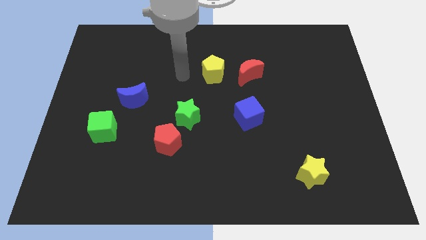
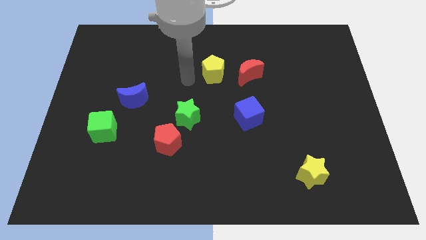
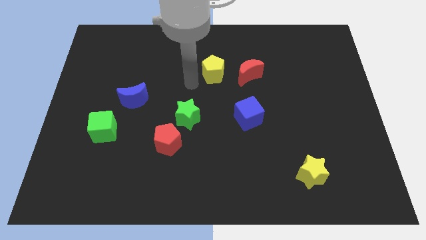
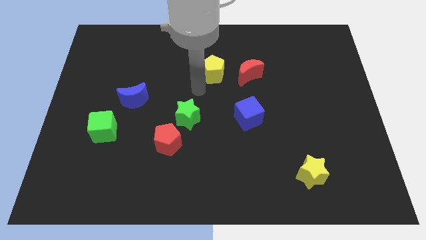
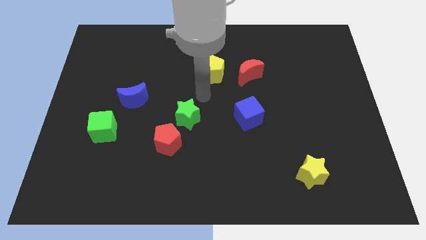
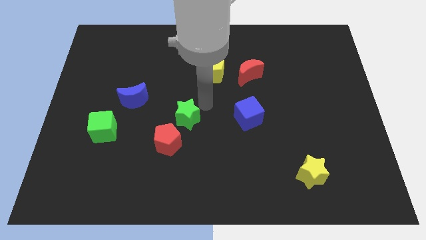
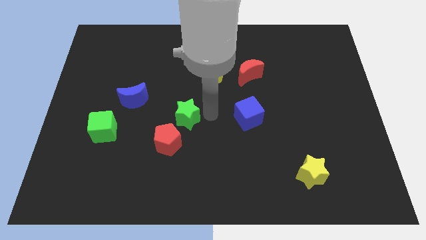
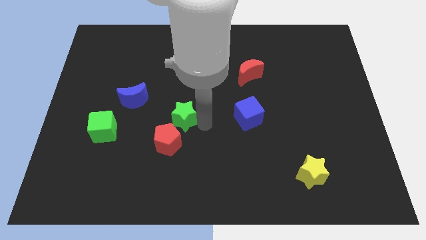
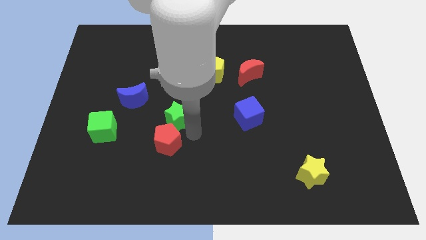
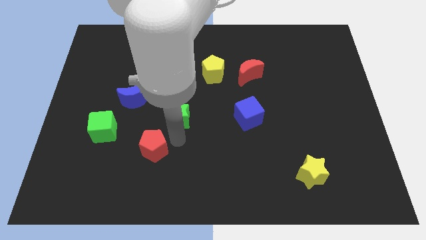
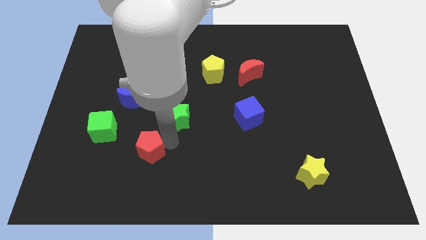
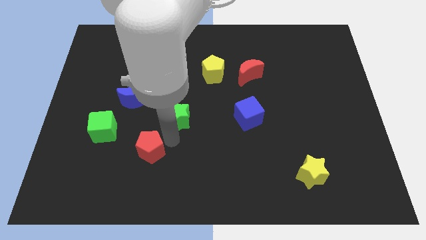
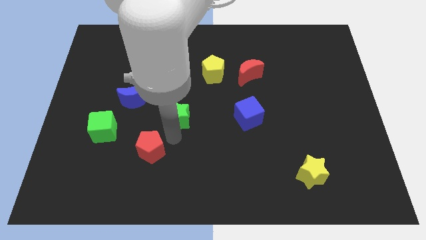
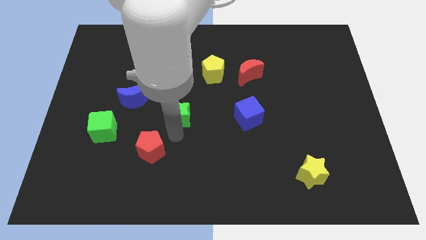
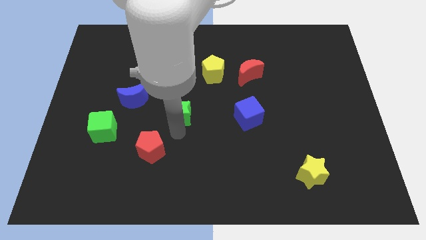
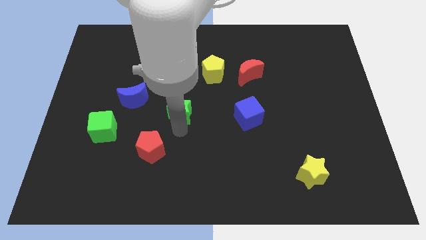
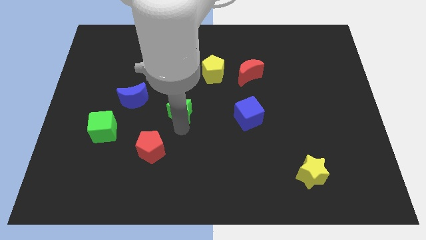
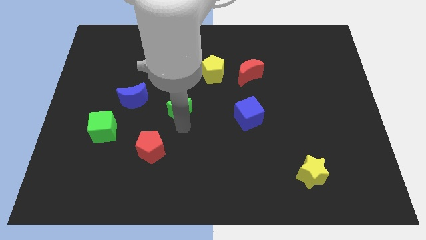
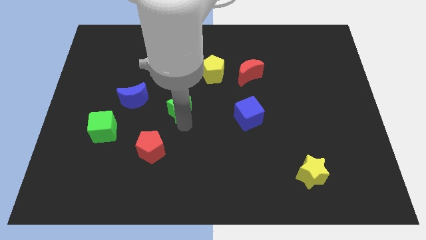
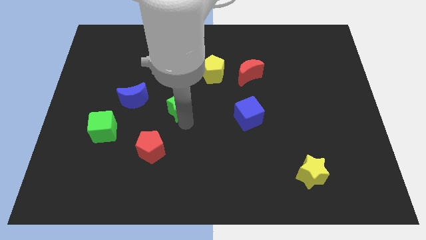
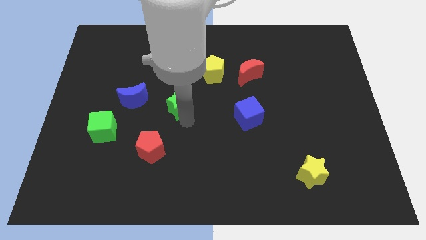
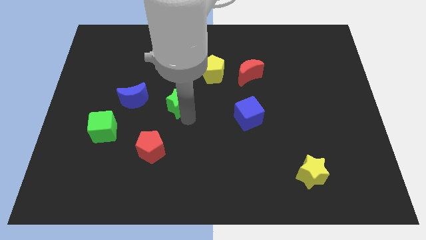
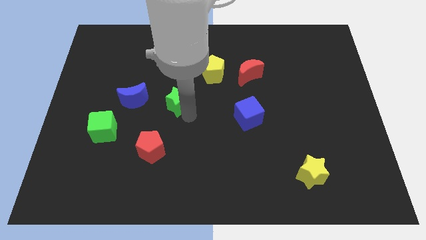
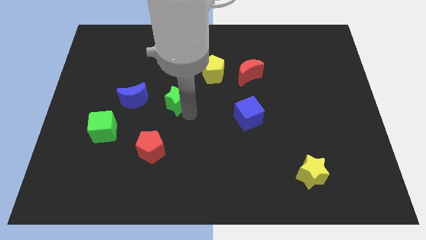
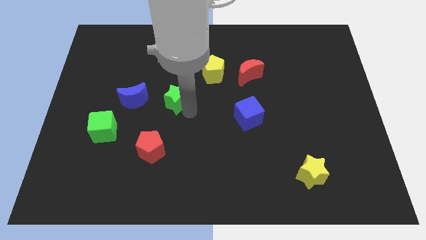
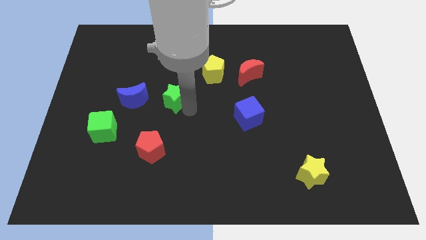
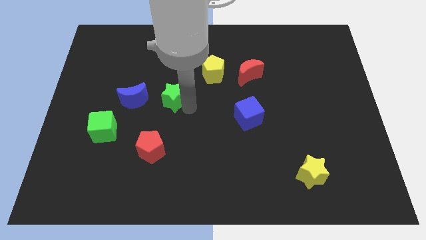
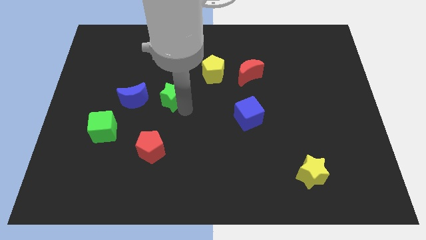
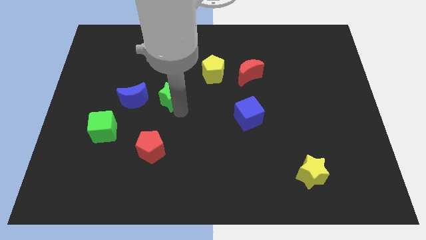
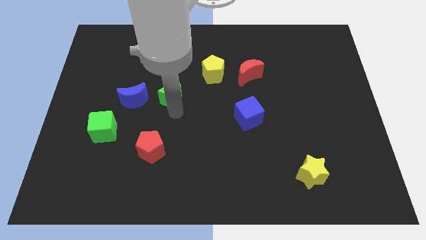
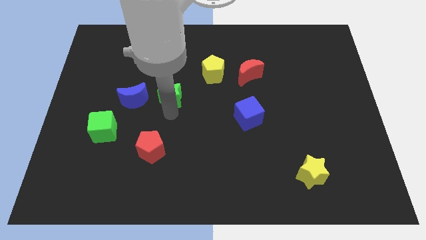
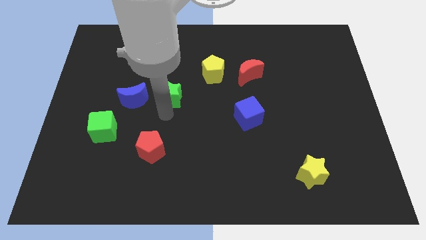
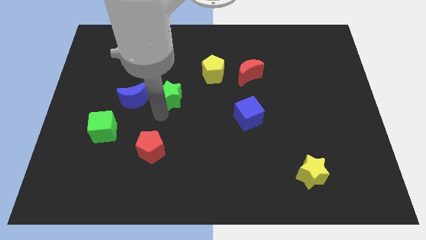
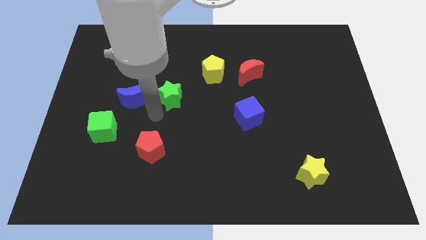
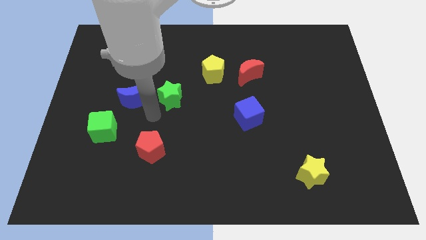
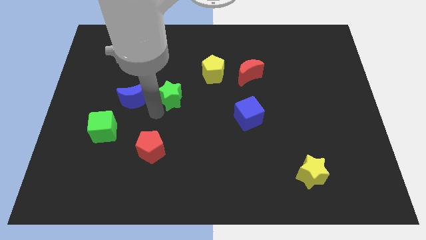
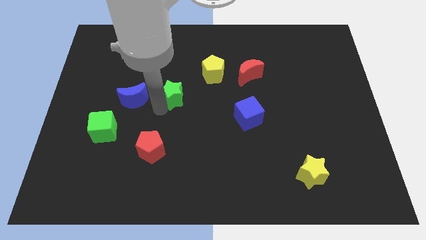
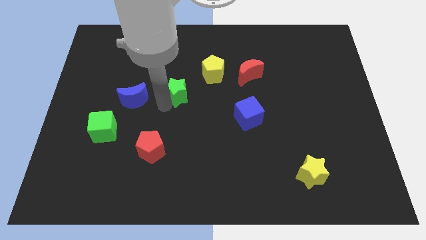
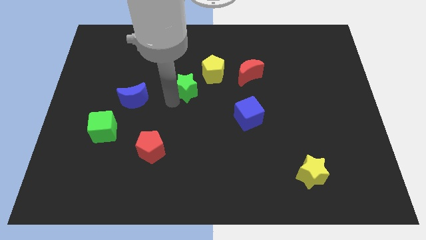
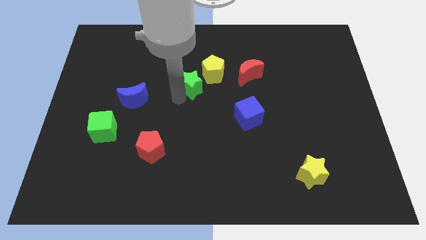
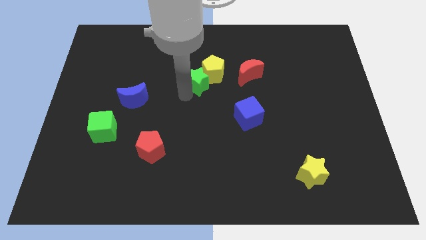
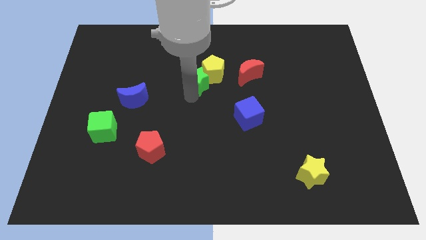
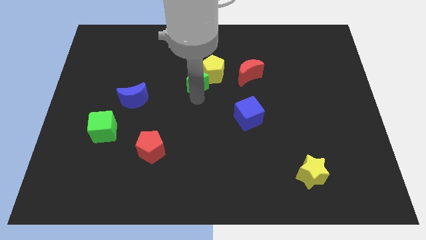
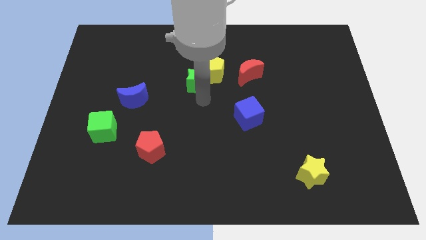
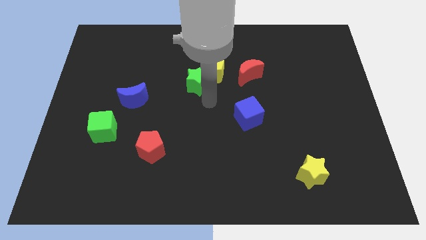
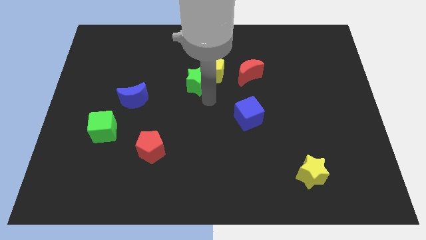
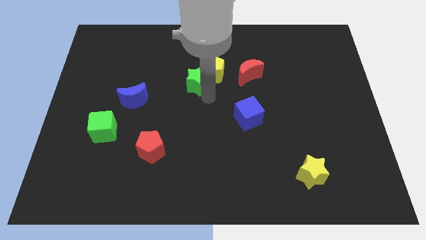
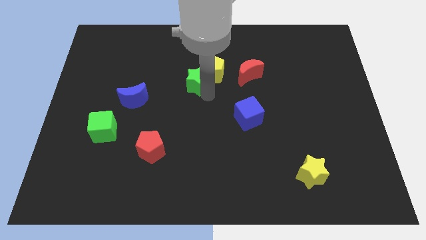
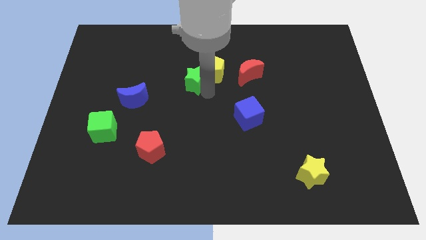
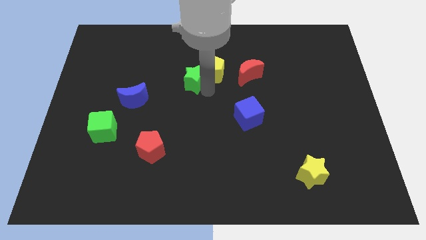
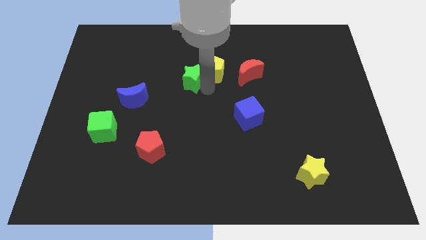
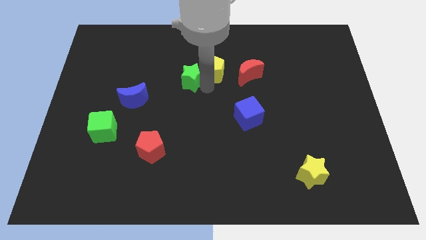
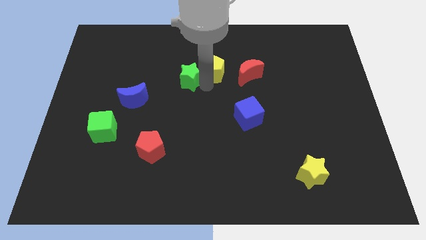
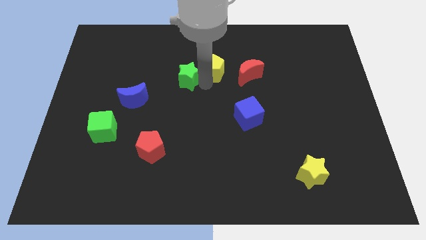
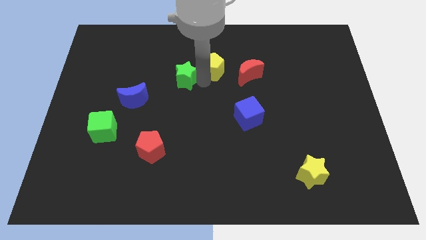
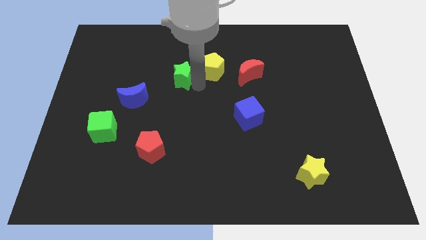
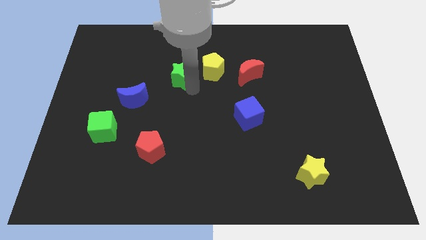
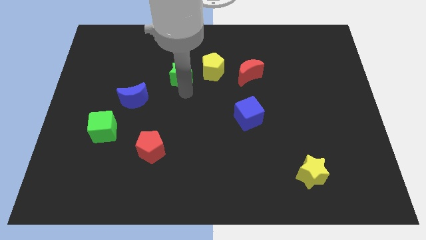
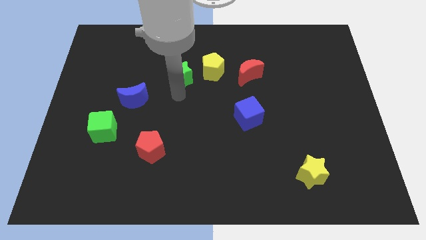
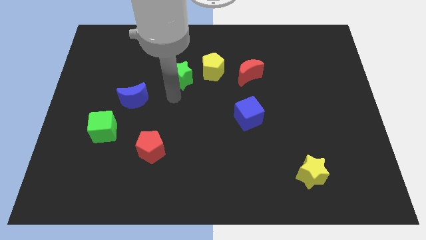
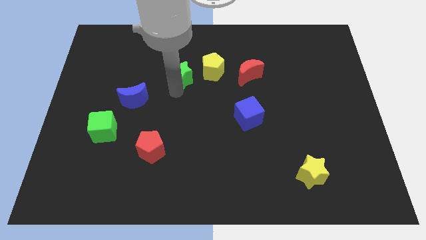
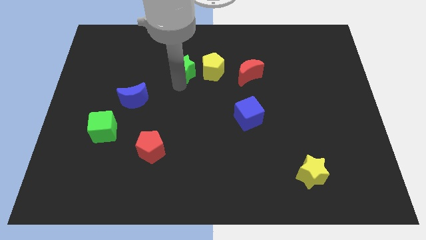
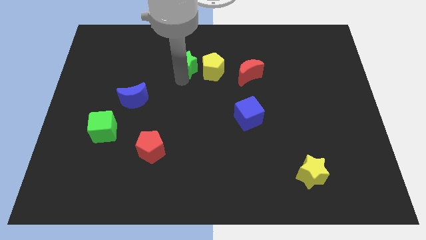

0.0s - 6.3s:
put the green star to the top left side of the yellow pentagon
